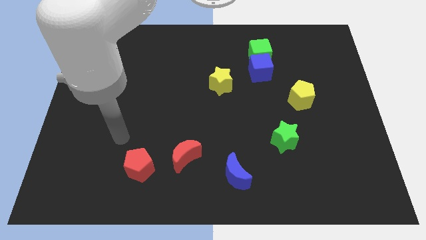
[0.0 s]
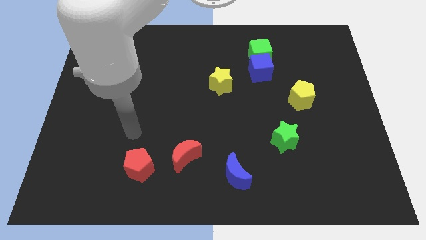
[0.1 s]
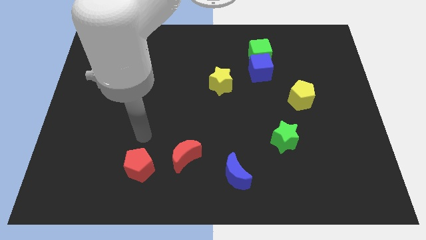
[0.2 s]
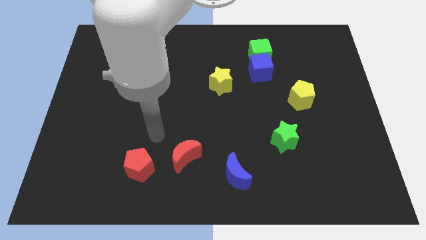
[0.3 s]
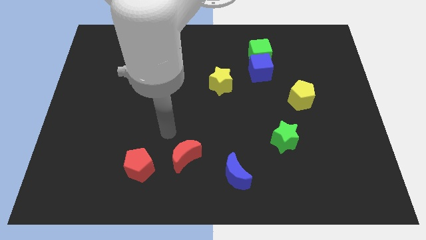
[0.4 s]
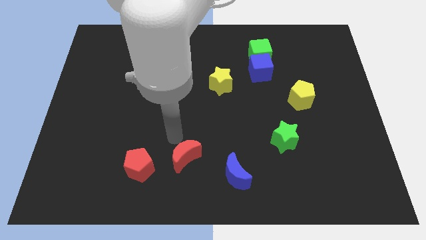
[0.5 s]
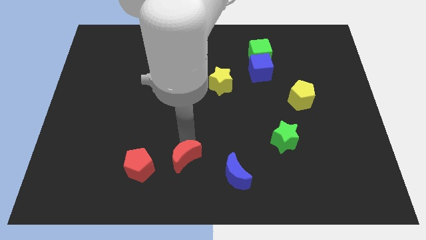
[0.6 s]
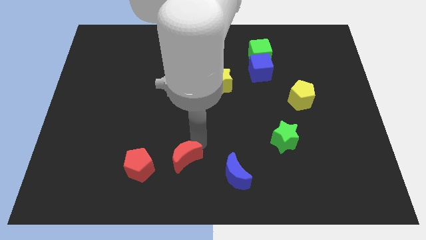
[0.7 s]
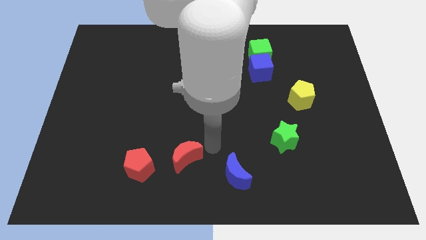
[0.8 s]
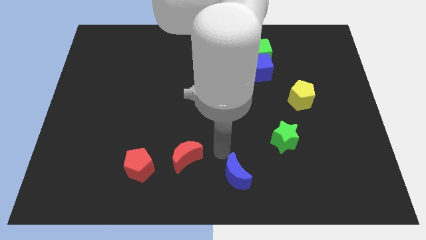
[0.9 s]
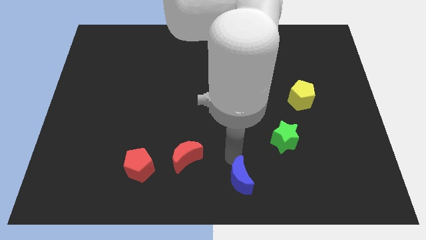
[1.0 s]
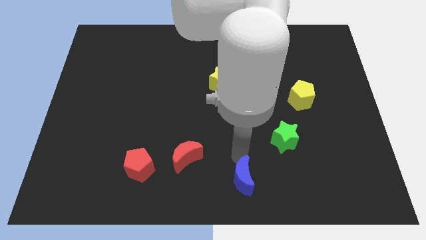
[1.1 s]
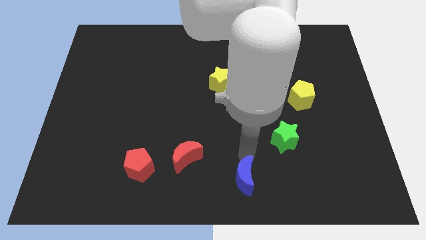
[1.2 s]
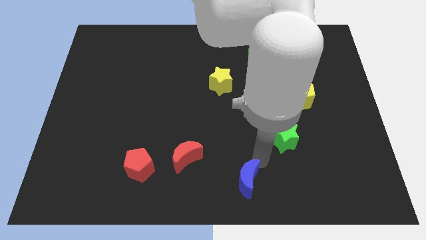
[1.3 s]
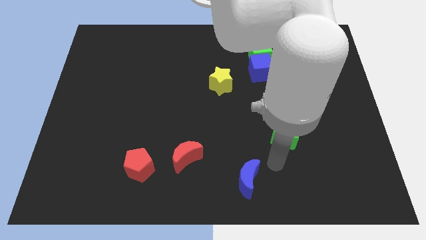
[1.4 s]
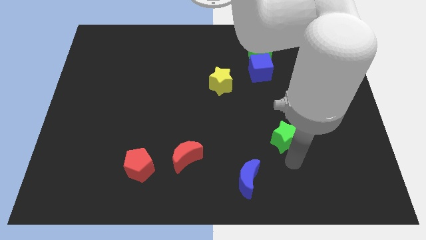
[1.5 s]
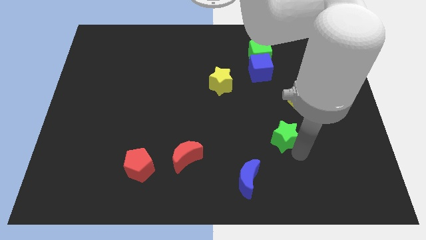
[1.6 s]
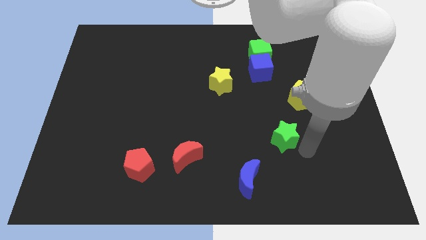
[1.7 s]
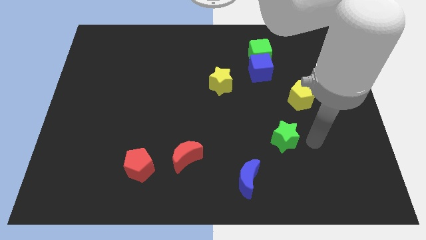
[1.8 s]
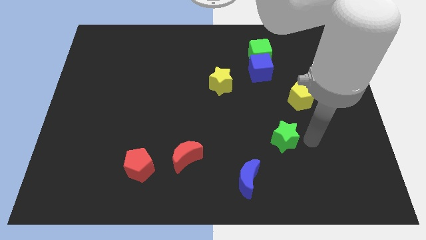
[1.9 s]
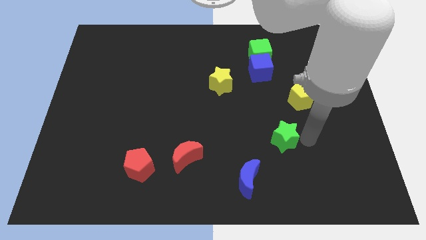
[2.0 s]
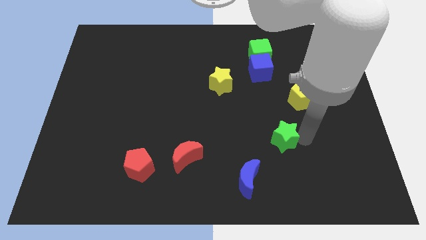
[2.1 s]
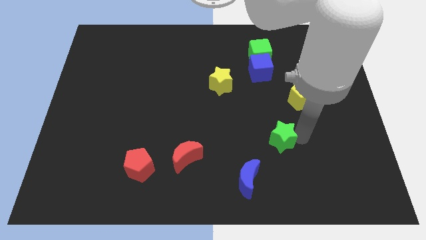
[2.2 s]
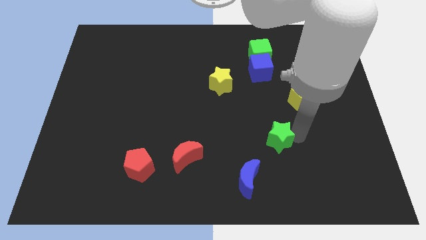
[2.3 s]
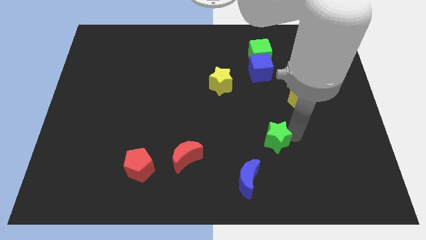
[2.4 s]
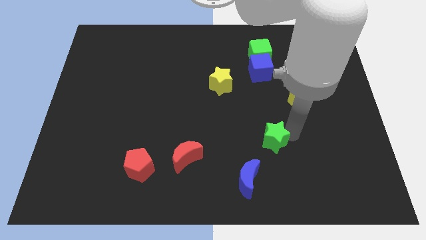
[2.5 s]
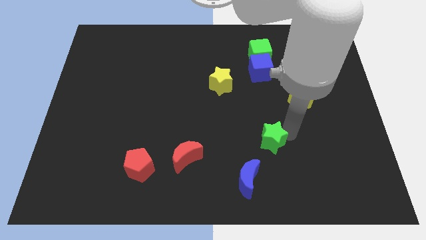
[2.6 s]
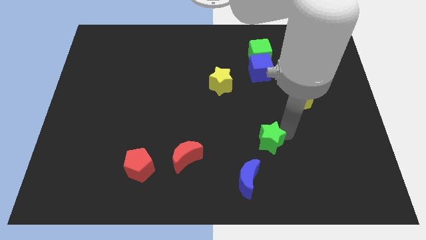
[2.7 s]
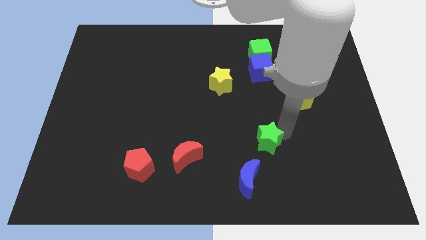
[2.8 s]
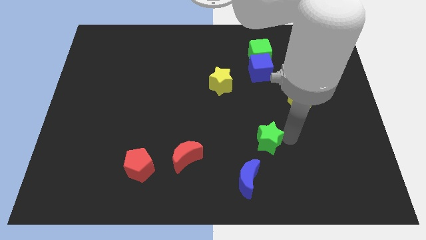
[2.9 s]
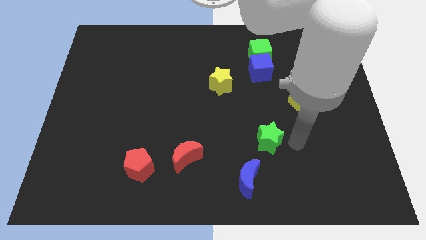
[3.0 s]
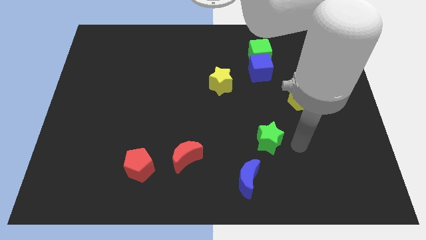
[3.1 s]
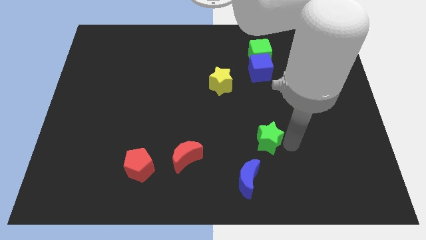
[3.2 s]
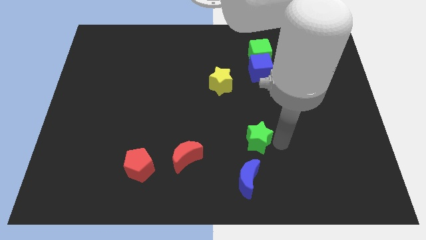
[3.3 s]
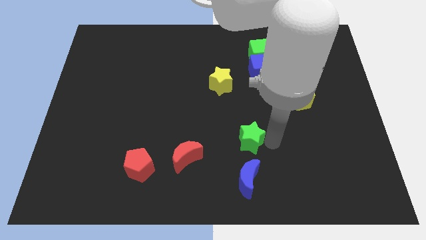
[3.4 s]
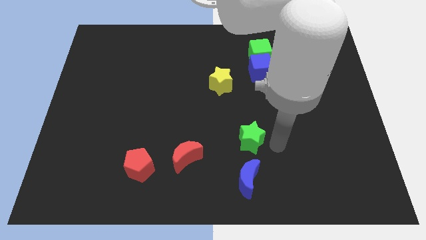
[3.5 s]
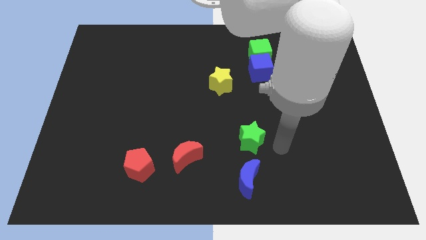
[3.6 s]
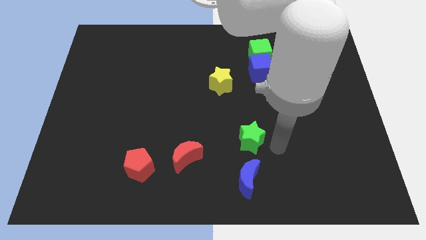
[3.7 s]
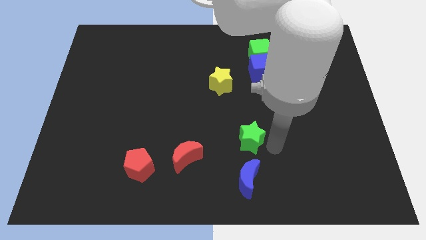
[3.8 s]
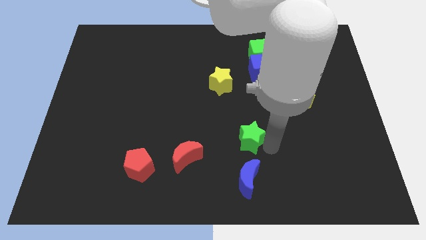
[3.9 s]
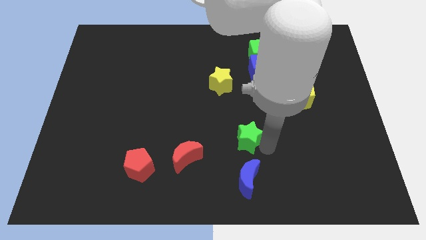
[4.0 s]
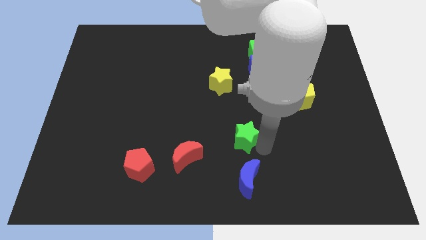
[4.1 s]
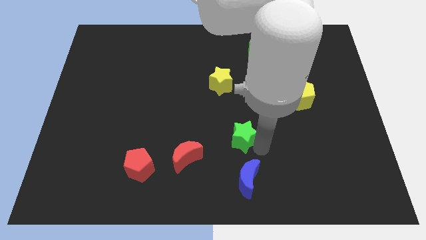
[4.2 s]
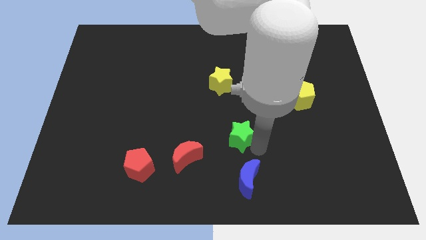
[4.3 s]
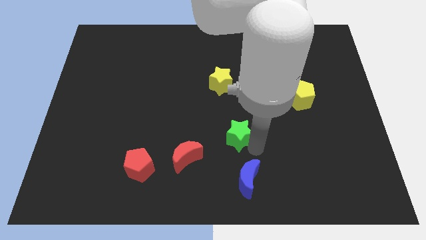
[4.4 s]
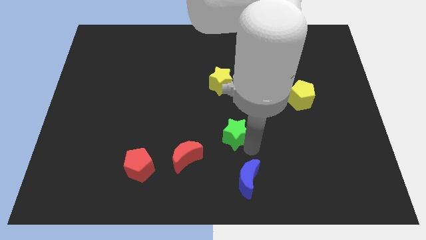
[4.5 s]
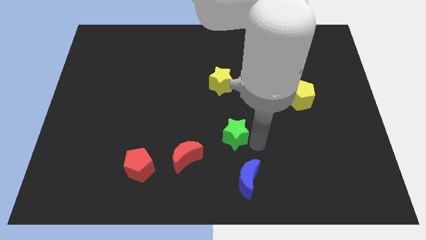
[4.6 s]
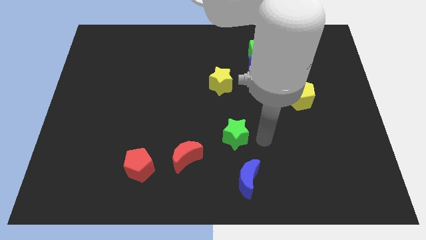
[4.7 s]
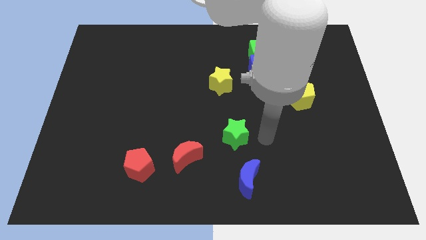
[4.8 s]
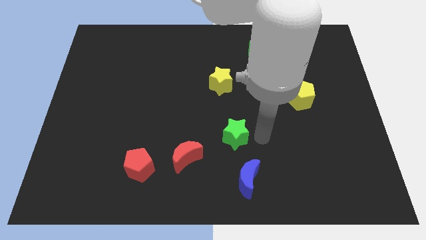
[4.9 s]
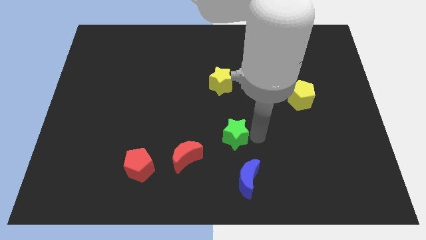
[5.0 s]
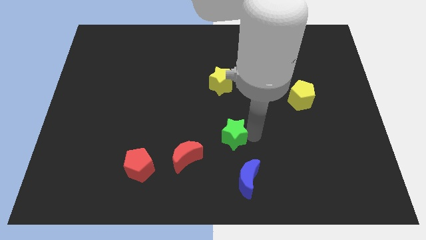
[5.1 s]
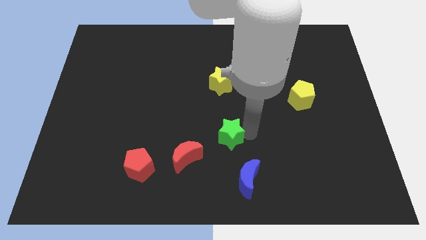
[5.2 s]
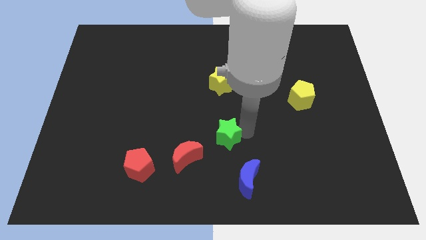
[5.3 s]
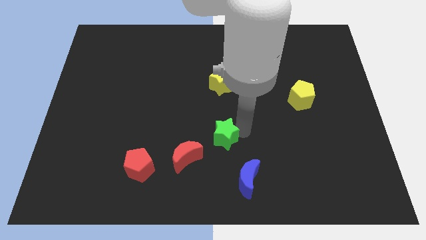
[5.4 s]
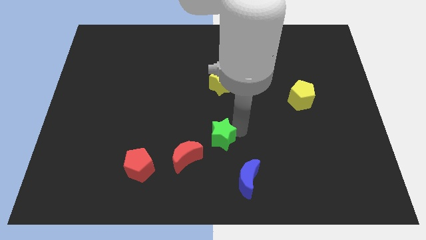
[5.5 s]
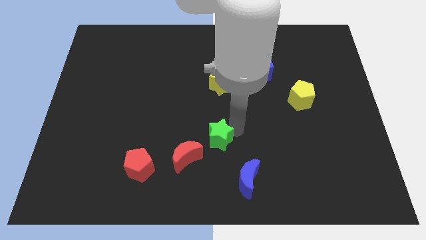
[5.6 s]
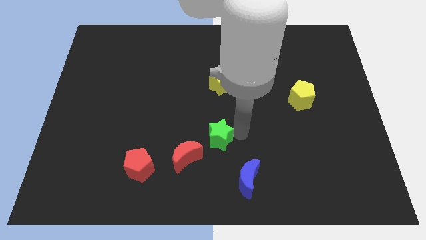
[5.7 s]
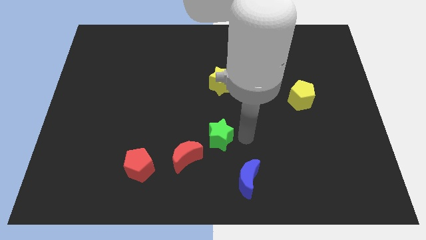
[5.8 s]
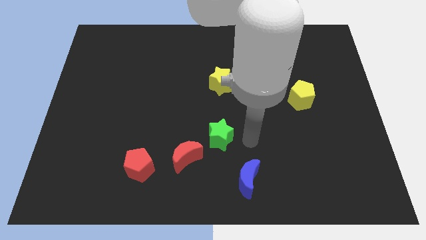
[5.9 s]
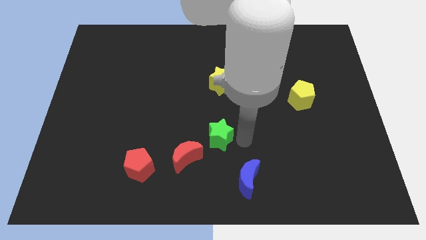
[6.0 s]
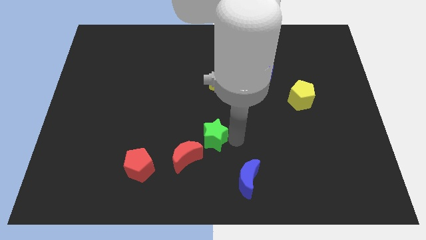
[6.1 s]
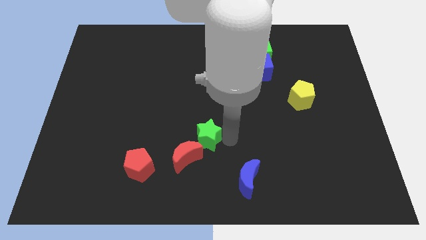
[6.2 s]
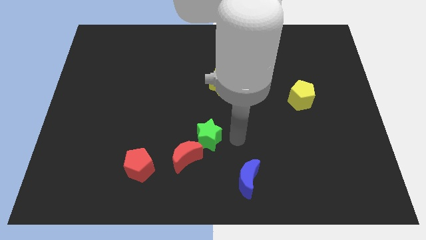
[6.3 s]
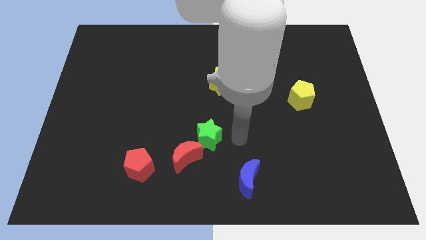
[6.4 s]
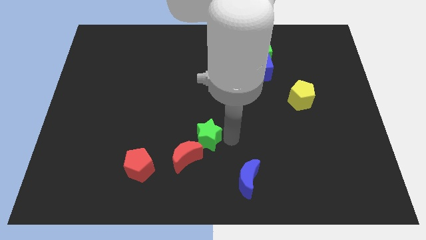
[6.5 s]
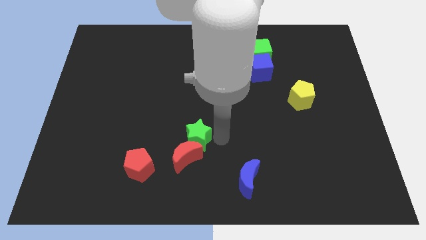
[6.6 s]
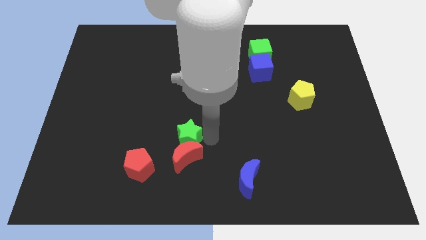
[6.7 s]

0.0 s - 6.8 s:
push the green star to the top left side of the red moon
